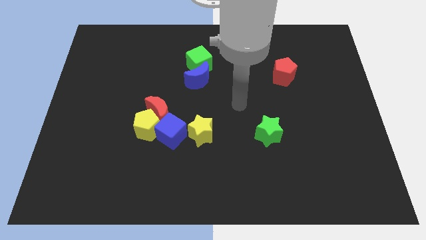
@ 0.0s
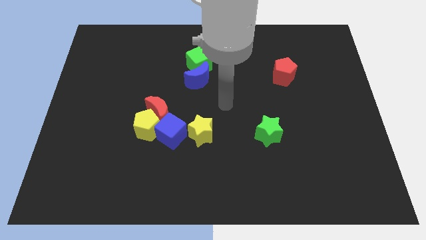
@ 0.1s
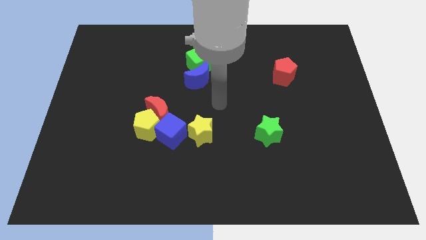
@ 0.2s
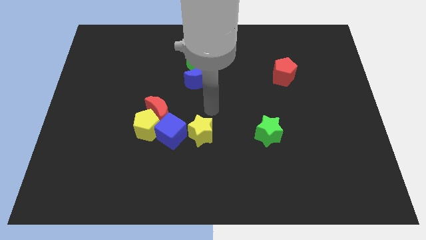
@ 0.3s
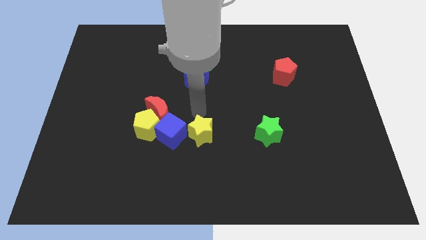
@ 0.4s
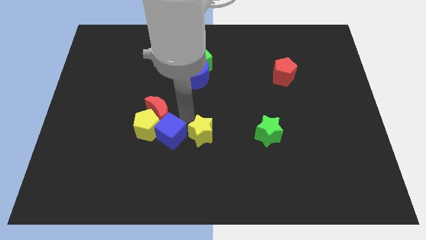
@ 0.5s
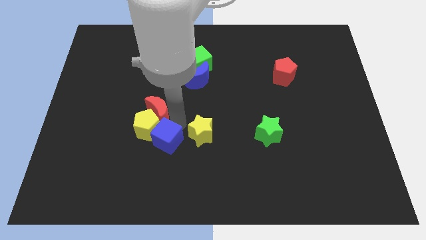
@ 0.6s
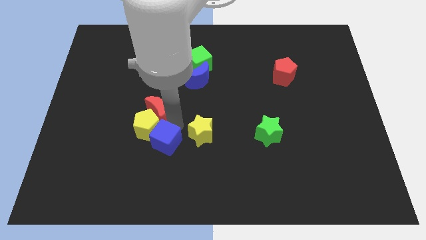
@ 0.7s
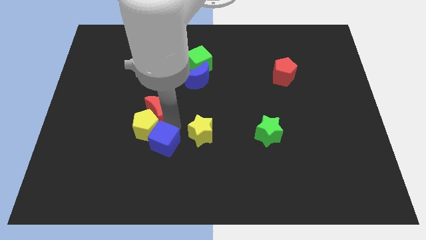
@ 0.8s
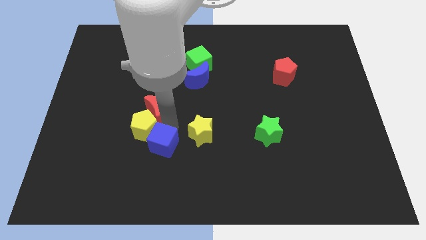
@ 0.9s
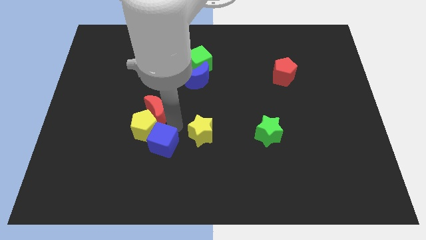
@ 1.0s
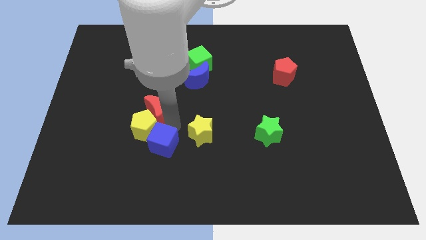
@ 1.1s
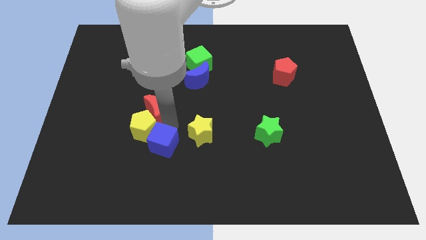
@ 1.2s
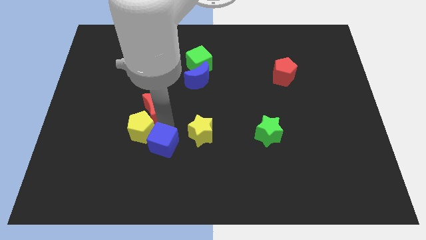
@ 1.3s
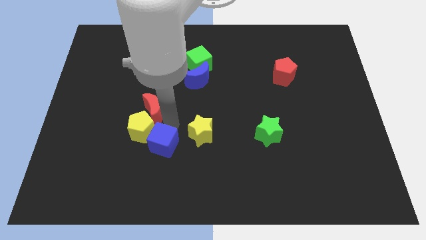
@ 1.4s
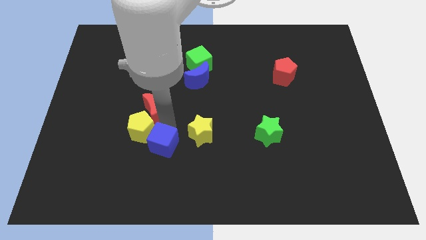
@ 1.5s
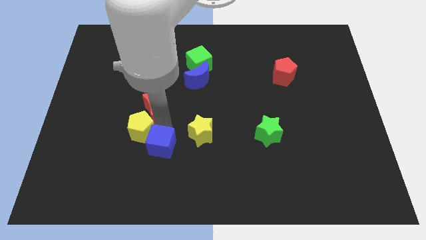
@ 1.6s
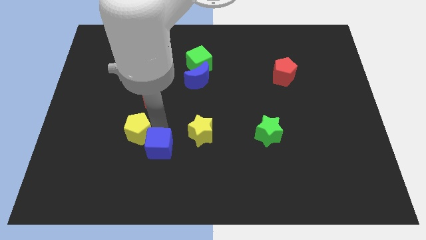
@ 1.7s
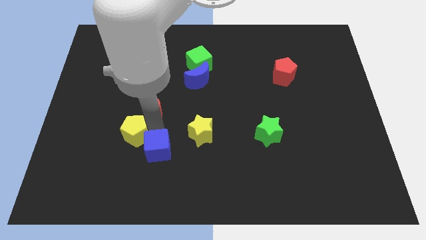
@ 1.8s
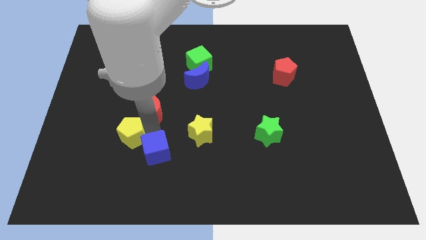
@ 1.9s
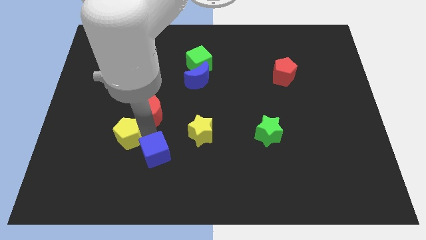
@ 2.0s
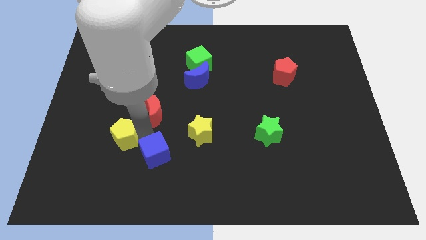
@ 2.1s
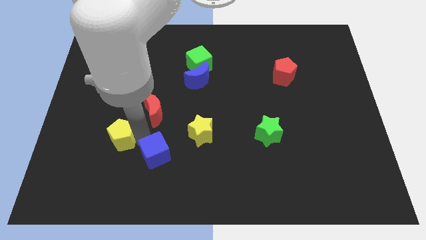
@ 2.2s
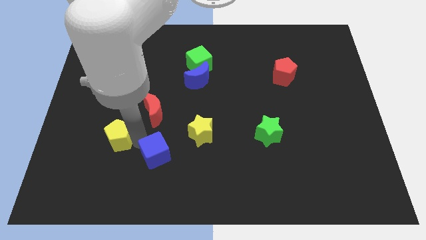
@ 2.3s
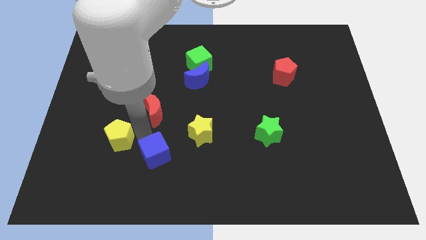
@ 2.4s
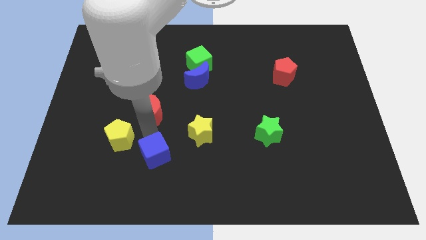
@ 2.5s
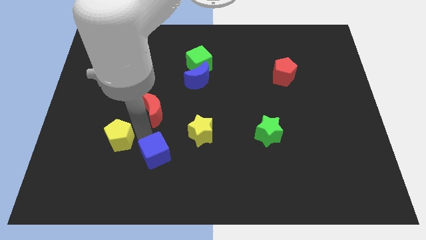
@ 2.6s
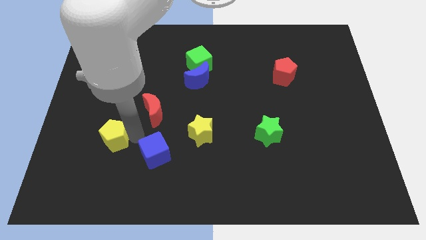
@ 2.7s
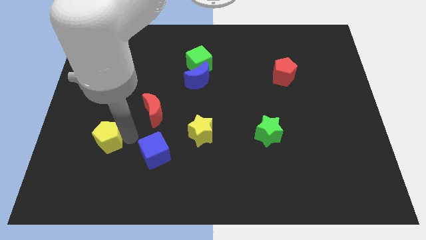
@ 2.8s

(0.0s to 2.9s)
move the yellow pentagon away from the red moon and blue cube

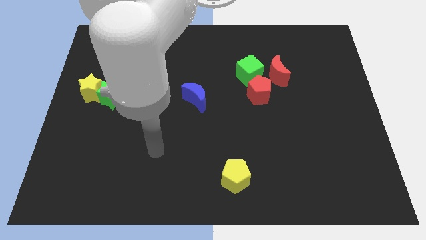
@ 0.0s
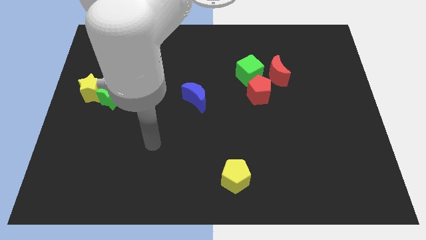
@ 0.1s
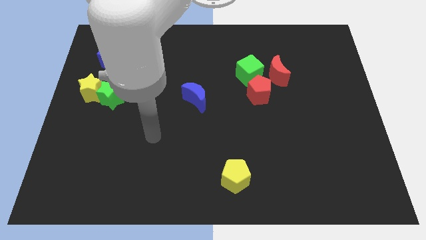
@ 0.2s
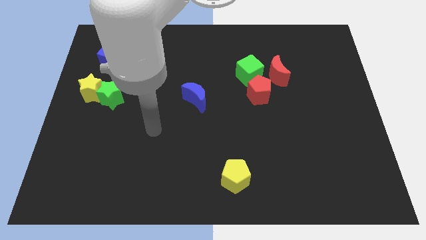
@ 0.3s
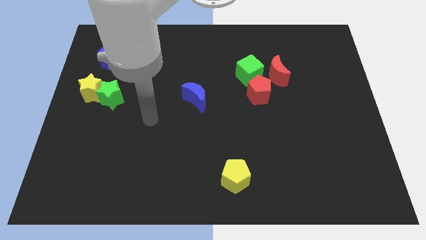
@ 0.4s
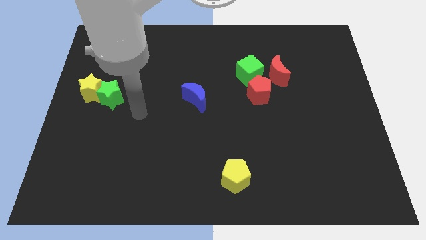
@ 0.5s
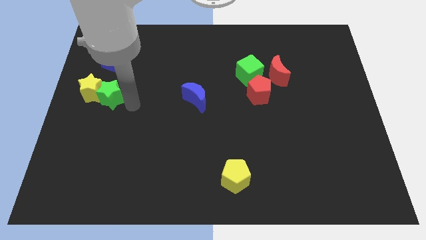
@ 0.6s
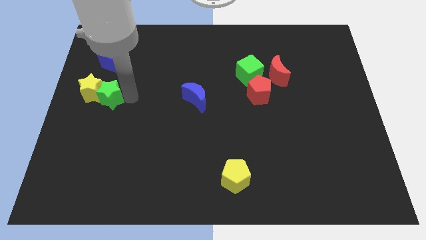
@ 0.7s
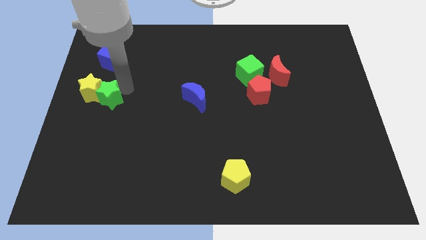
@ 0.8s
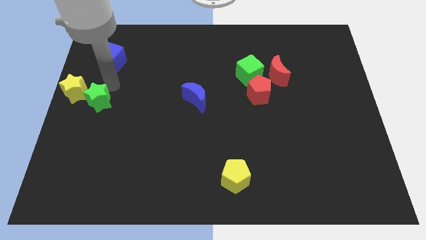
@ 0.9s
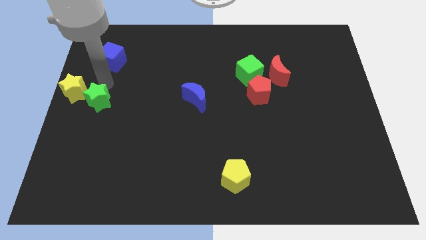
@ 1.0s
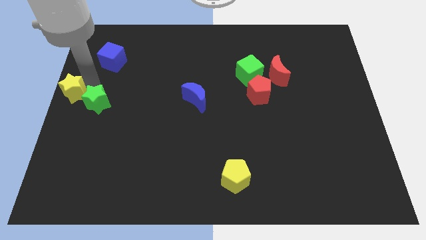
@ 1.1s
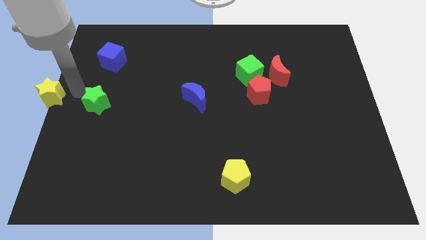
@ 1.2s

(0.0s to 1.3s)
pull the green star apart from the yellow star

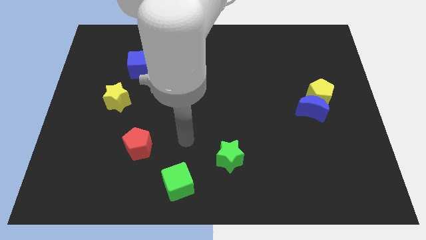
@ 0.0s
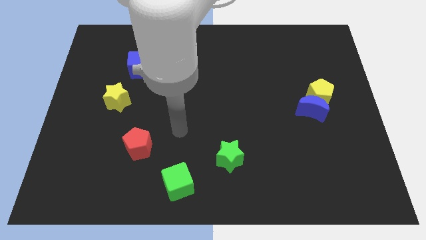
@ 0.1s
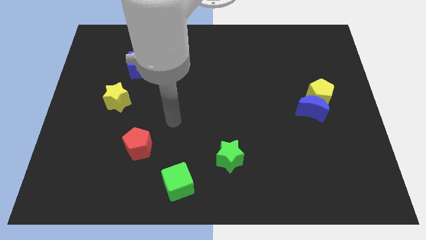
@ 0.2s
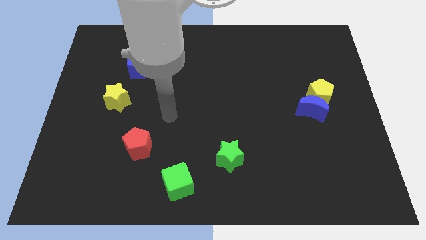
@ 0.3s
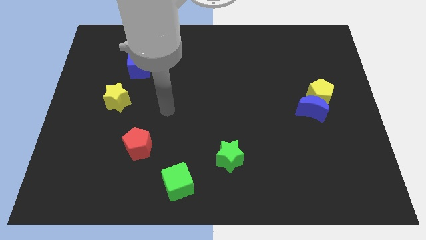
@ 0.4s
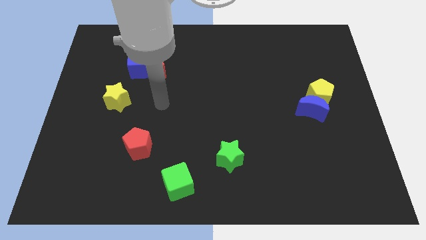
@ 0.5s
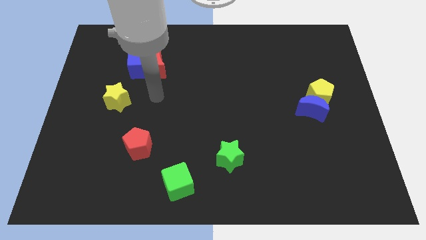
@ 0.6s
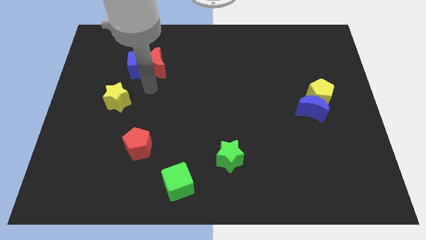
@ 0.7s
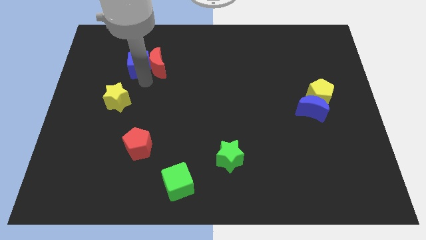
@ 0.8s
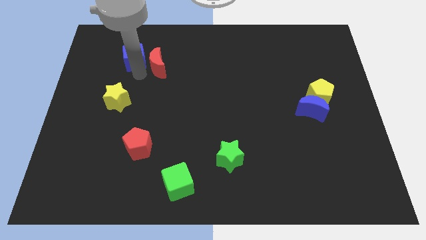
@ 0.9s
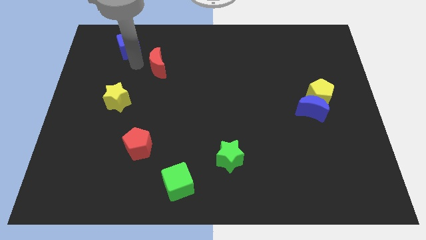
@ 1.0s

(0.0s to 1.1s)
pull the red moon apart from the blue cube

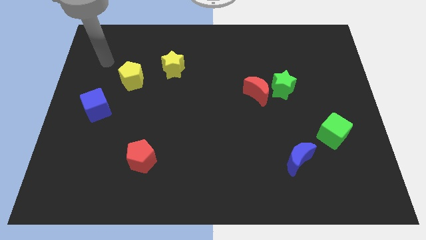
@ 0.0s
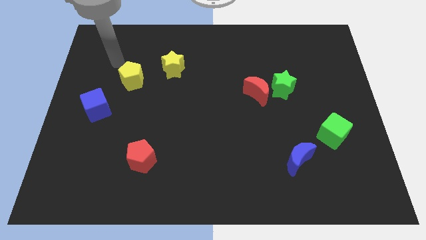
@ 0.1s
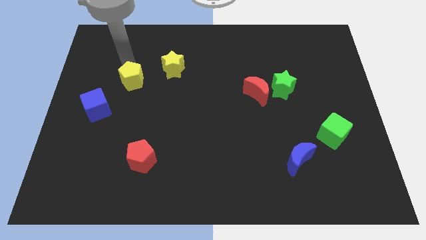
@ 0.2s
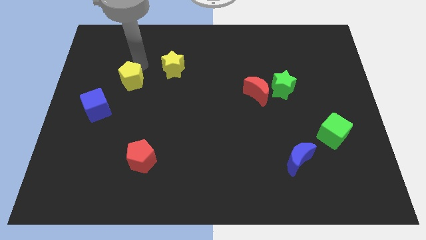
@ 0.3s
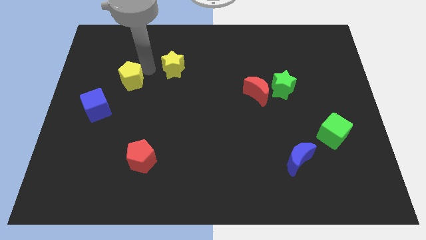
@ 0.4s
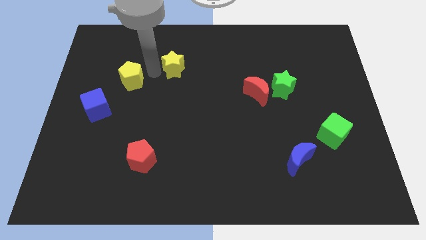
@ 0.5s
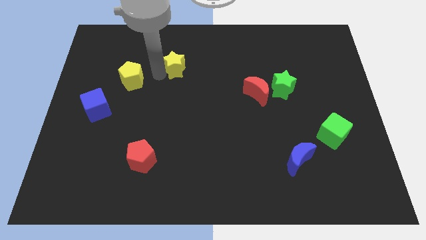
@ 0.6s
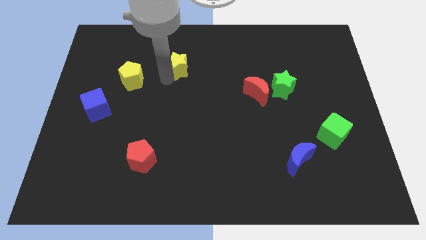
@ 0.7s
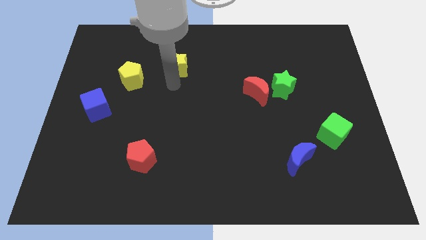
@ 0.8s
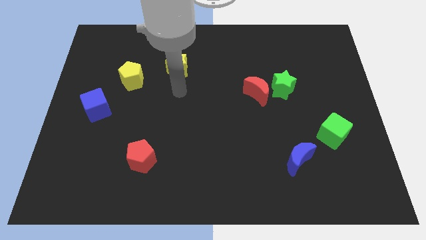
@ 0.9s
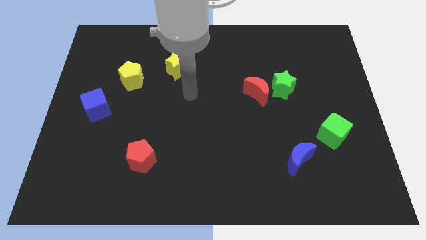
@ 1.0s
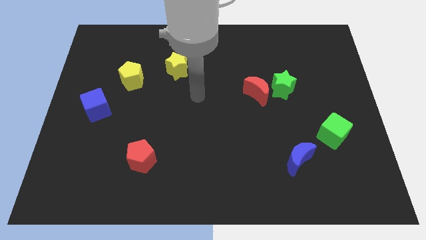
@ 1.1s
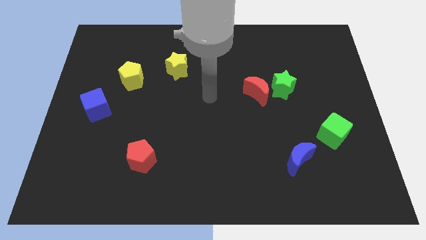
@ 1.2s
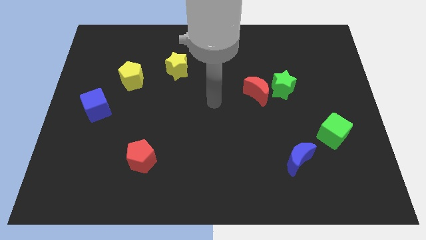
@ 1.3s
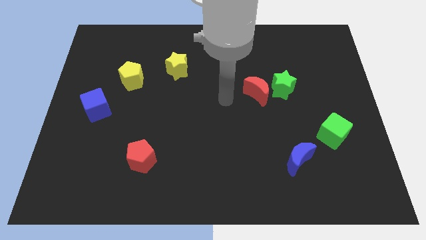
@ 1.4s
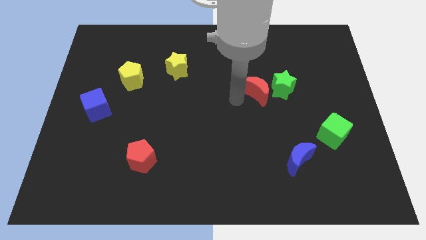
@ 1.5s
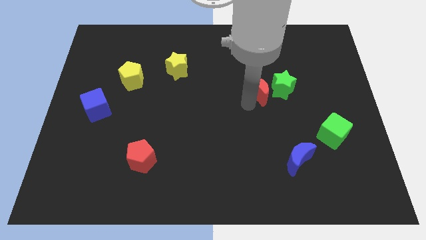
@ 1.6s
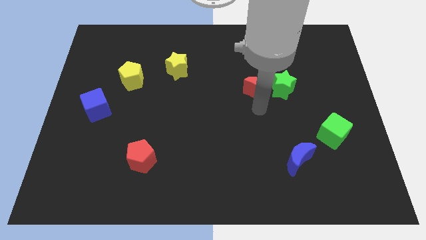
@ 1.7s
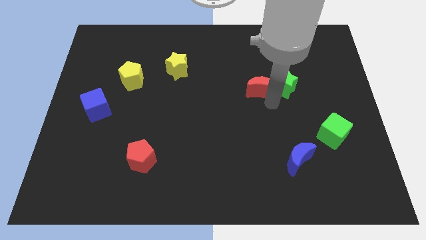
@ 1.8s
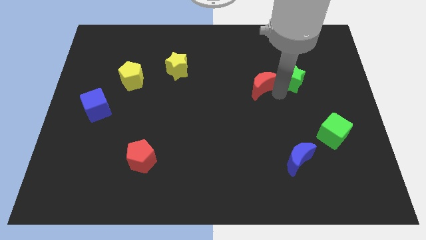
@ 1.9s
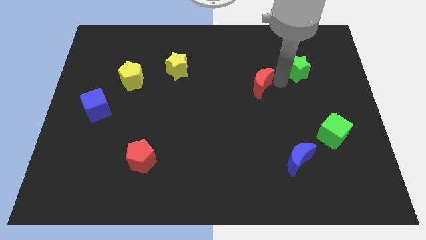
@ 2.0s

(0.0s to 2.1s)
move the red moon away from the green star

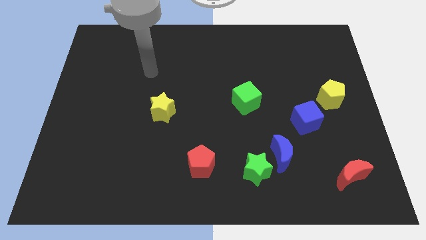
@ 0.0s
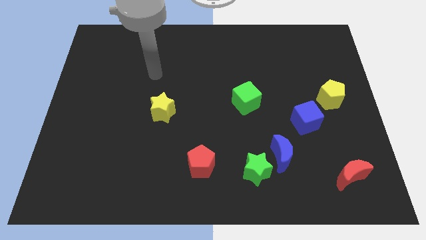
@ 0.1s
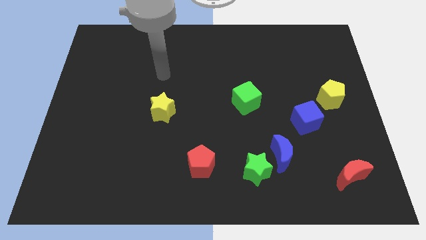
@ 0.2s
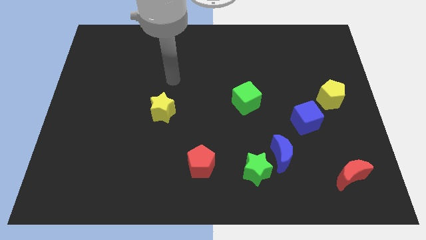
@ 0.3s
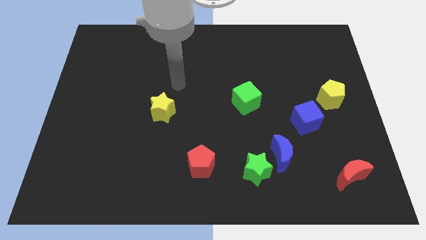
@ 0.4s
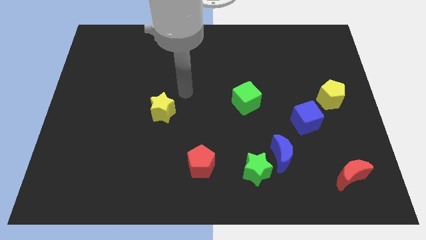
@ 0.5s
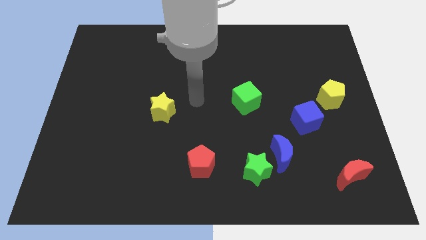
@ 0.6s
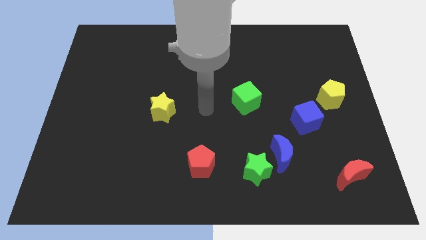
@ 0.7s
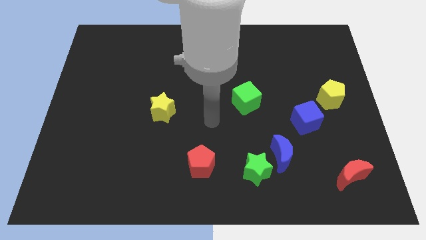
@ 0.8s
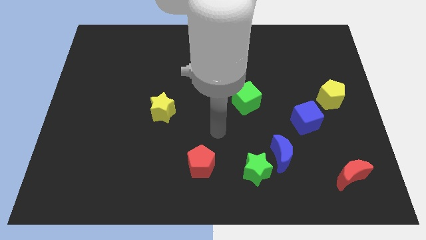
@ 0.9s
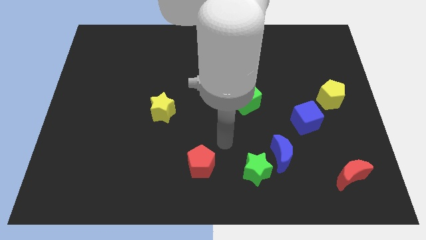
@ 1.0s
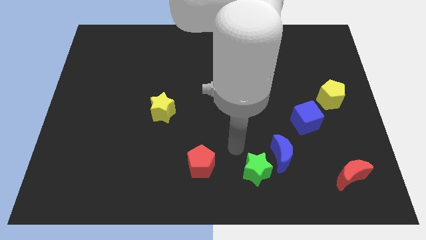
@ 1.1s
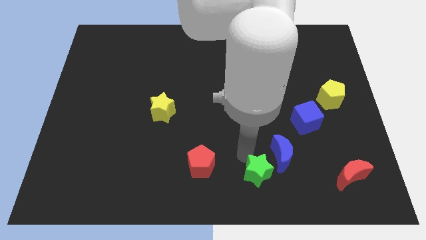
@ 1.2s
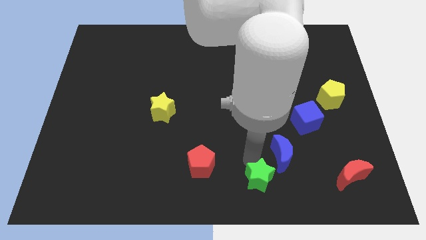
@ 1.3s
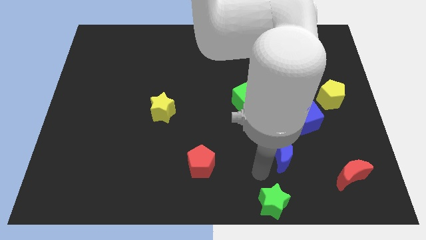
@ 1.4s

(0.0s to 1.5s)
pull the blue moon apart from the green star

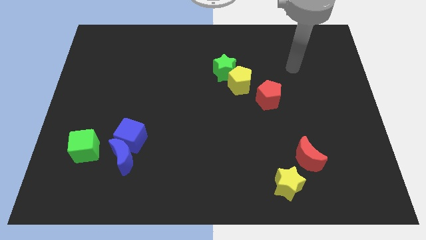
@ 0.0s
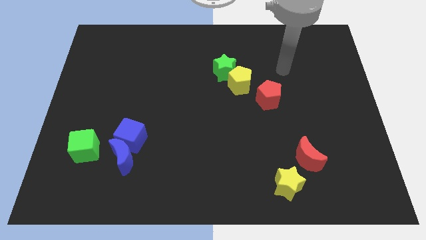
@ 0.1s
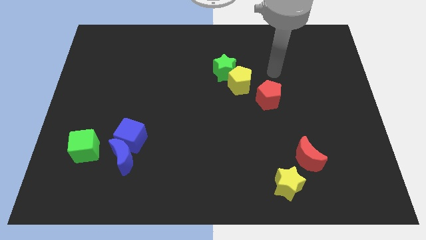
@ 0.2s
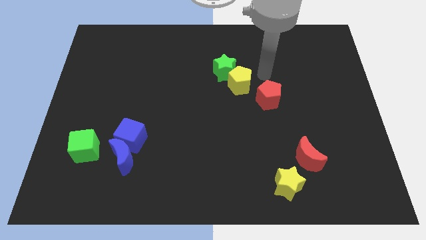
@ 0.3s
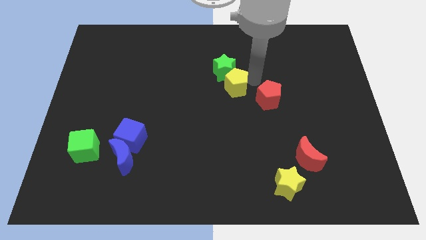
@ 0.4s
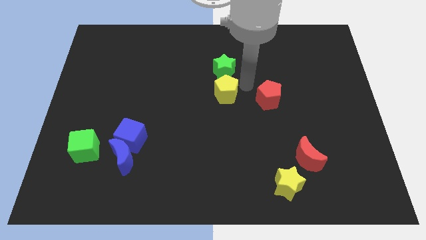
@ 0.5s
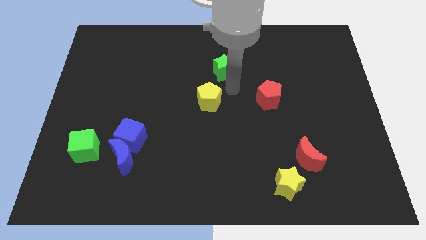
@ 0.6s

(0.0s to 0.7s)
separate the green star from the yellow pentagon
